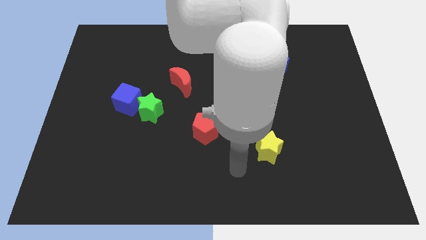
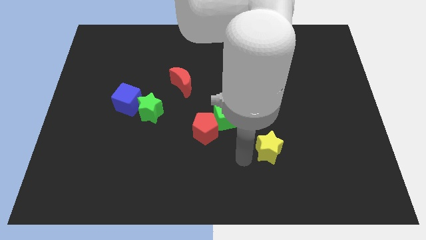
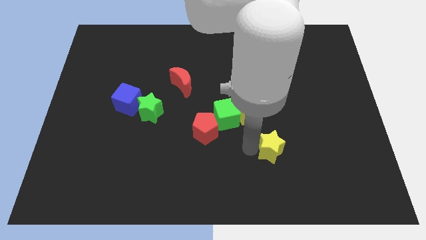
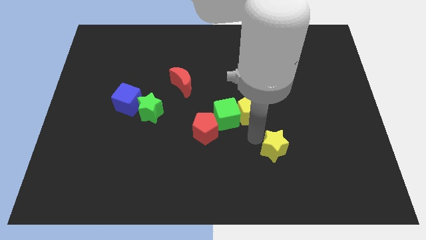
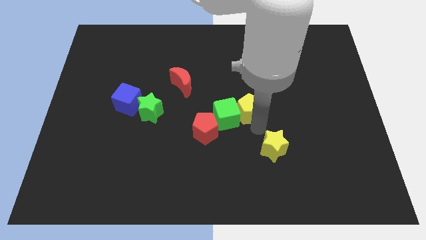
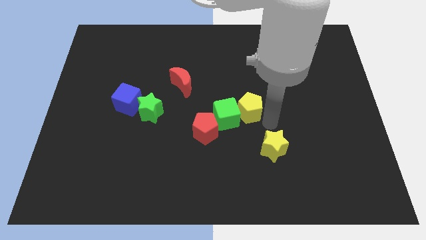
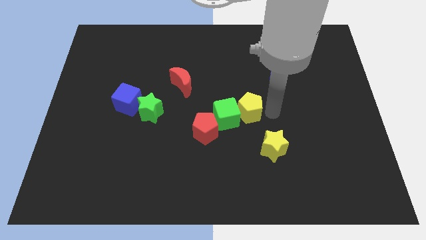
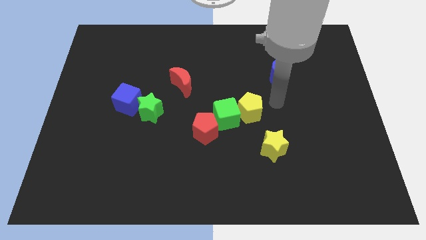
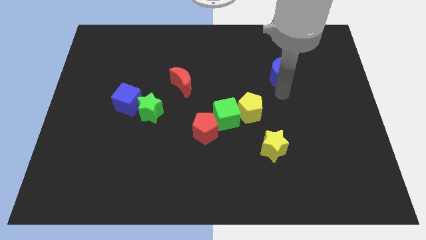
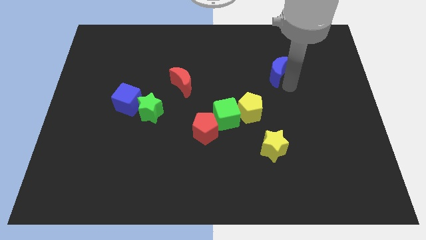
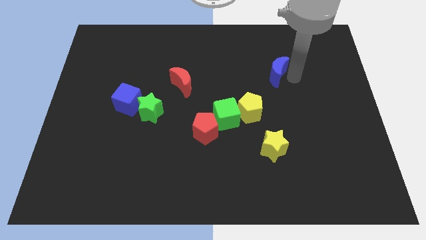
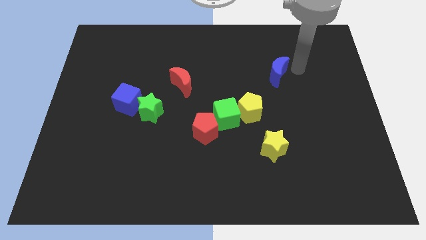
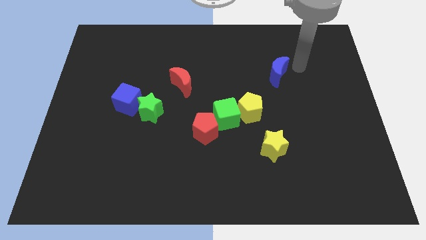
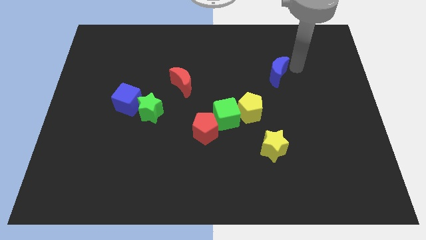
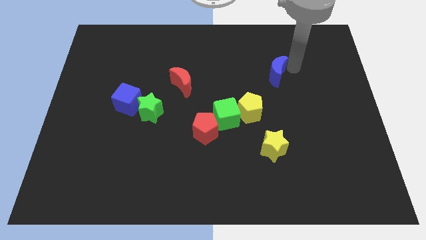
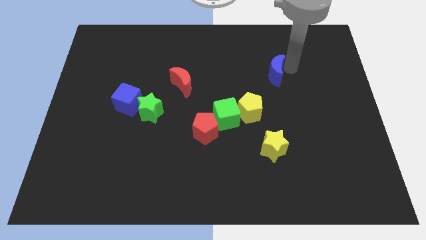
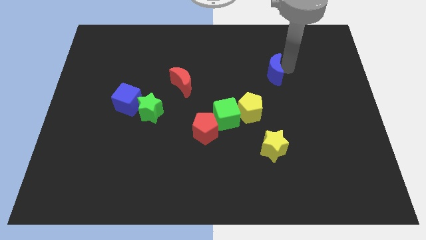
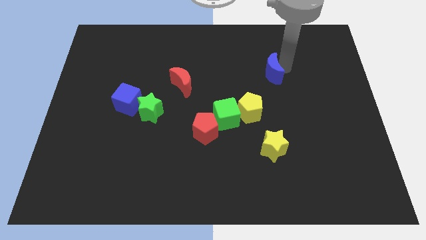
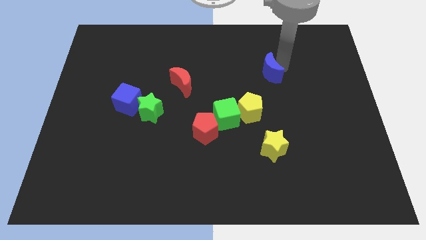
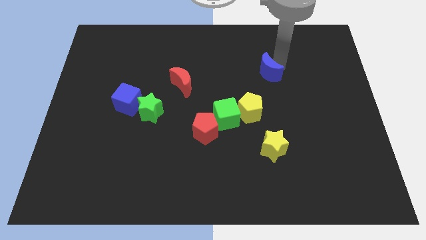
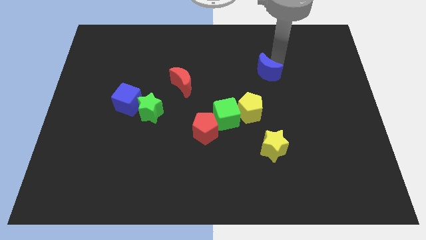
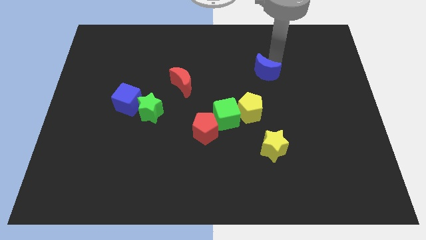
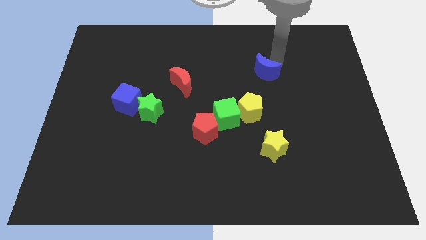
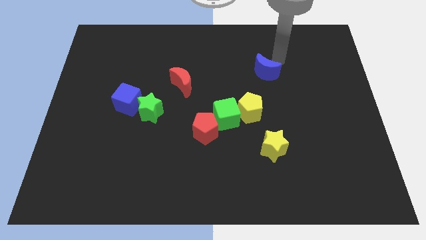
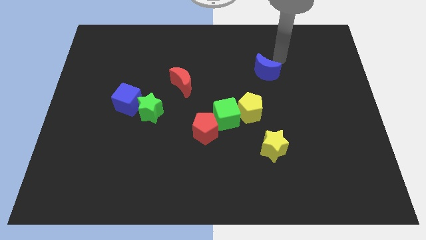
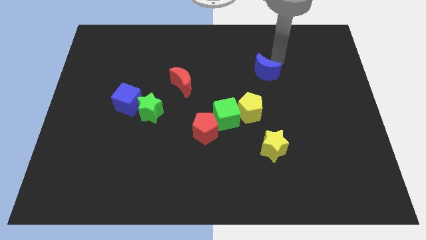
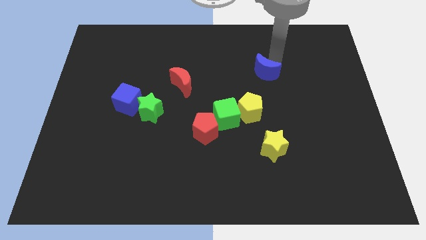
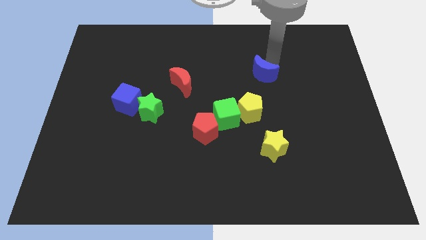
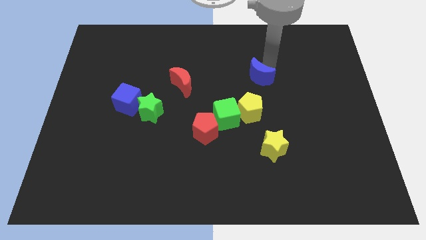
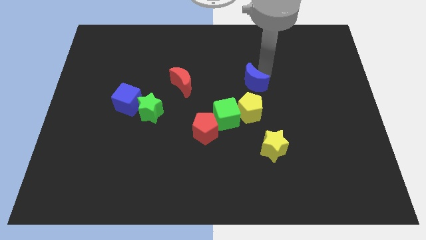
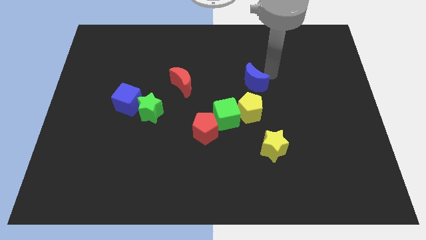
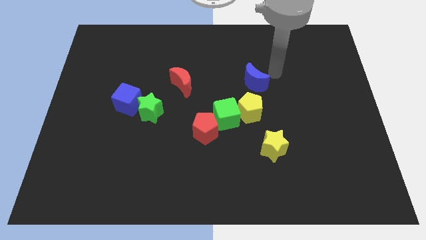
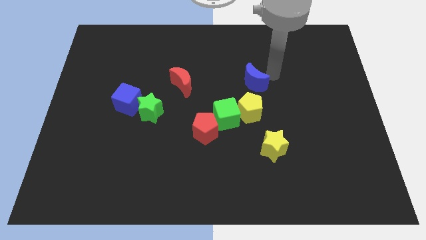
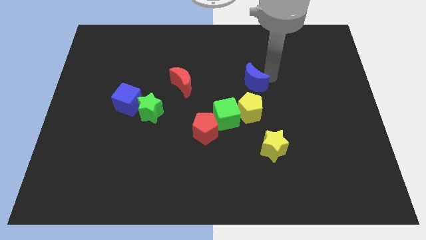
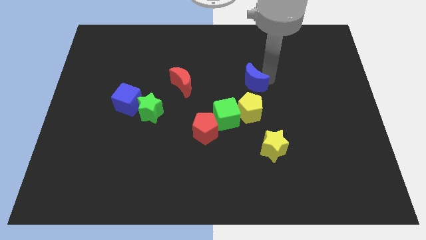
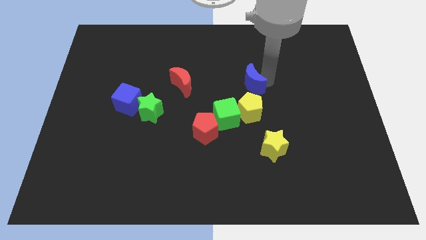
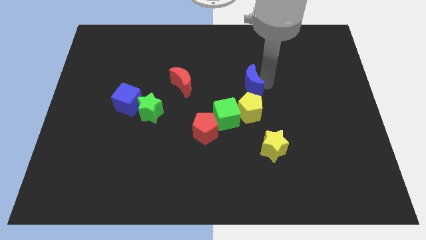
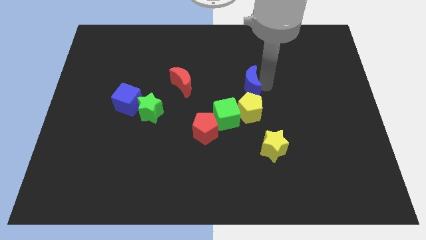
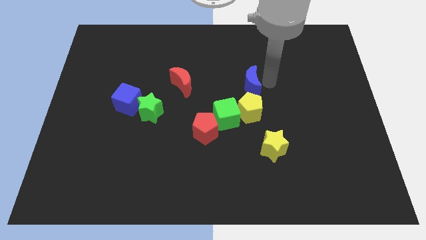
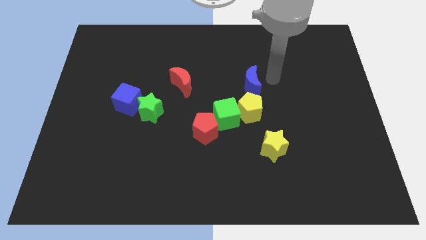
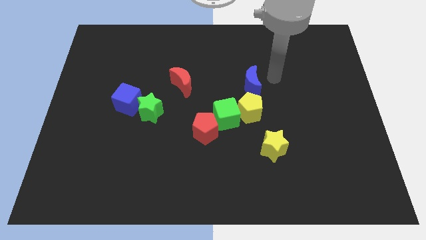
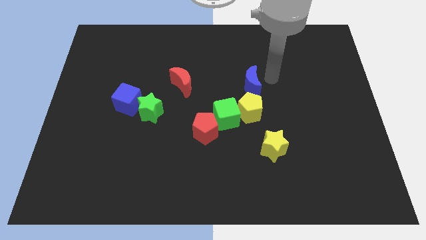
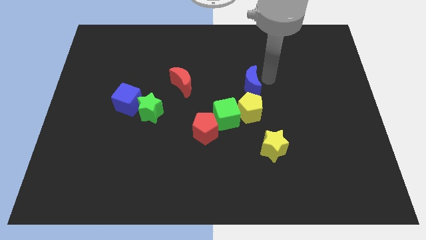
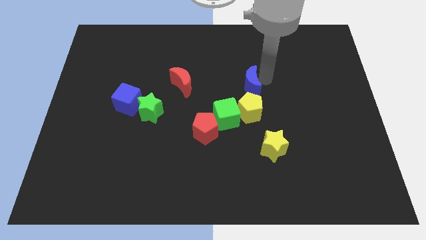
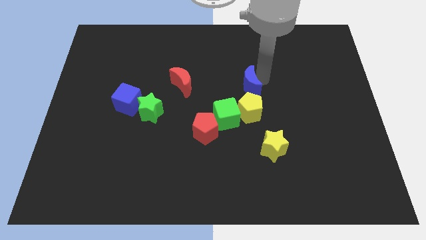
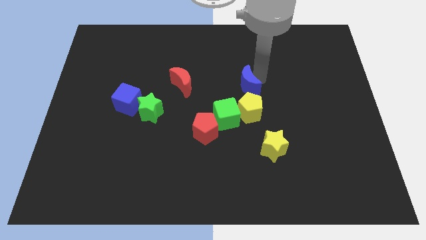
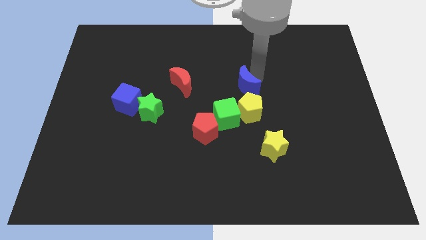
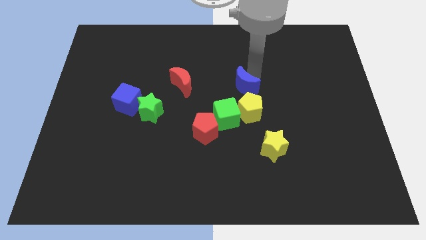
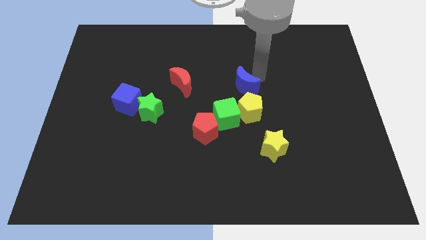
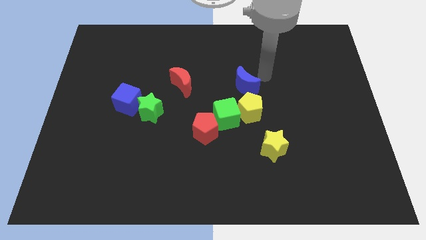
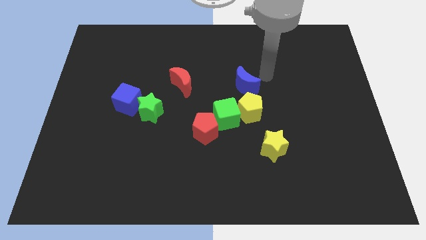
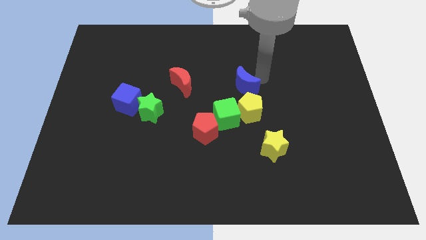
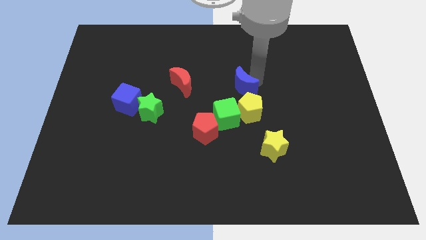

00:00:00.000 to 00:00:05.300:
move the blue moon to the top left of the yellow pentagon

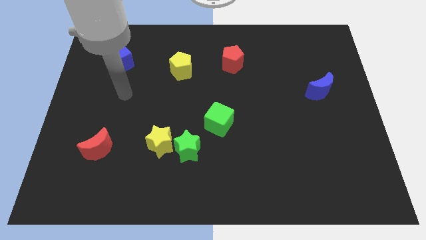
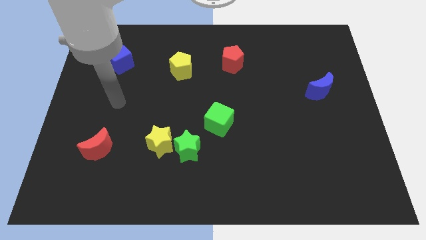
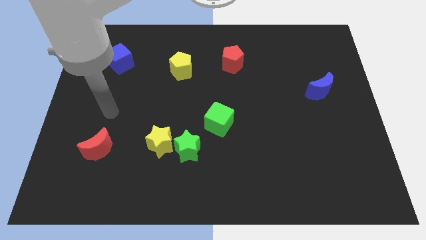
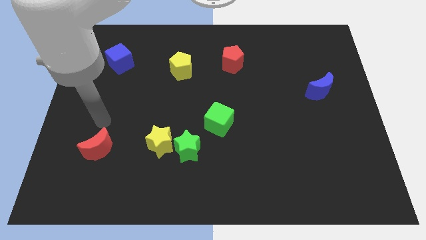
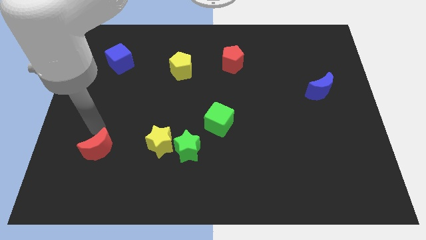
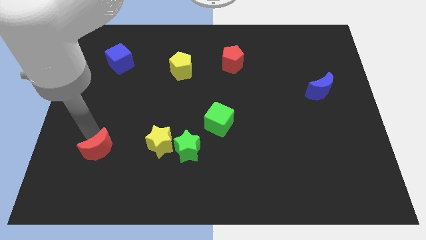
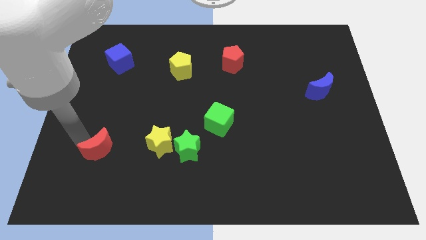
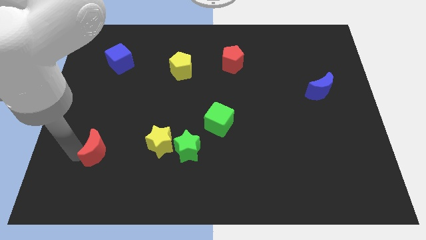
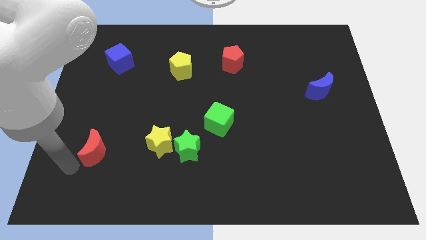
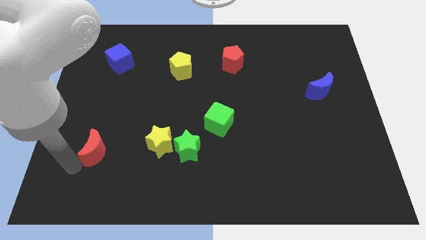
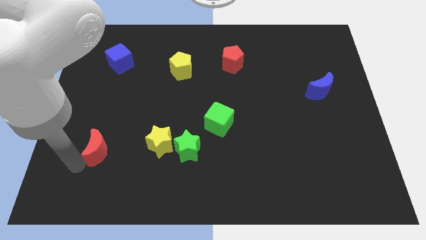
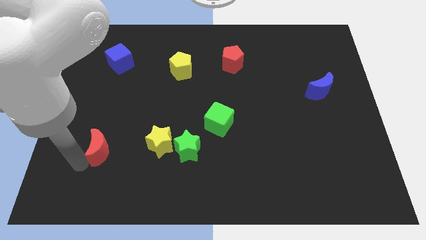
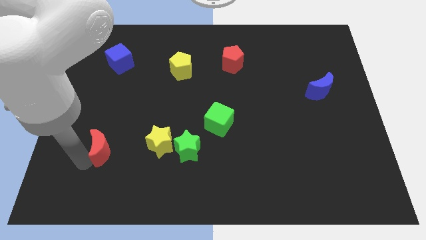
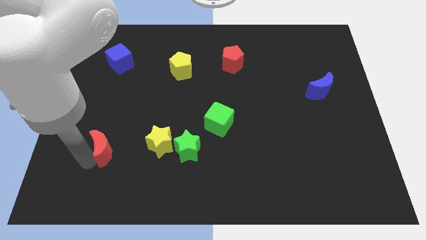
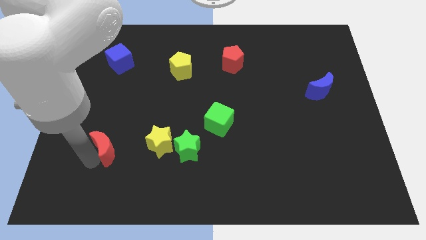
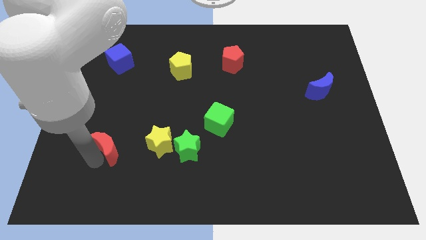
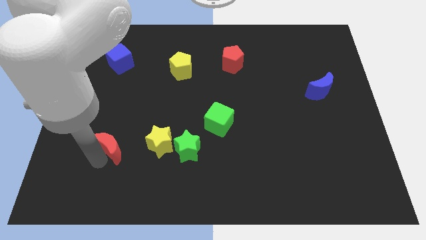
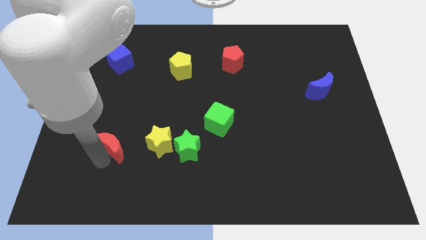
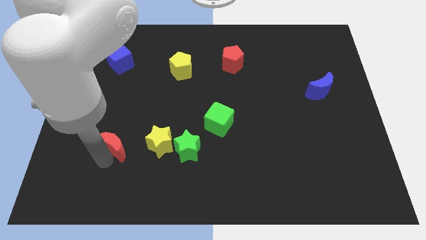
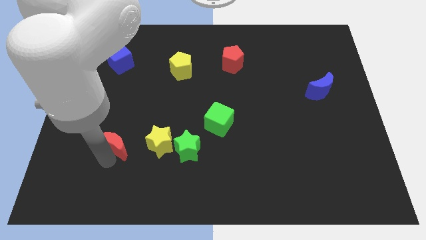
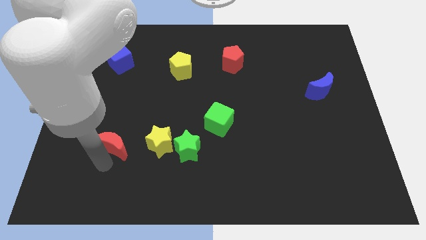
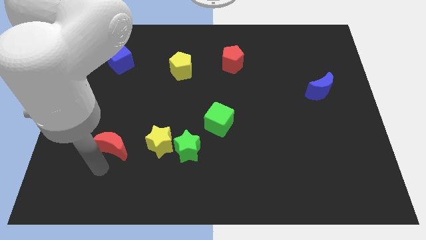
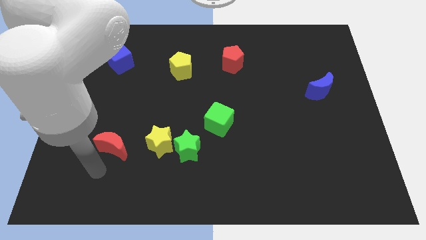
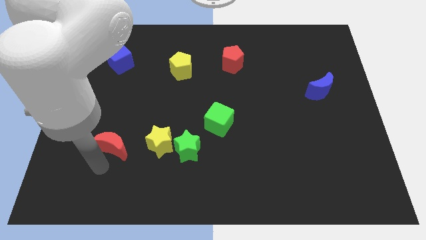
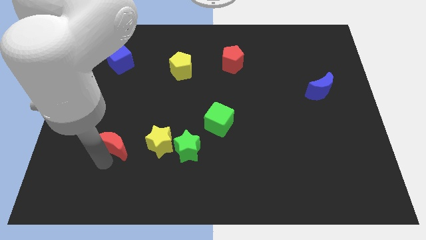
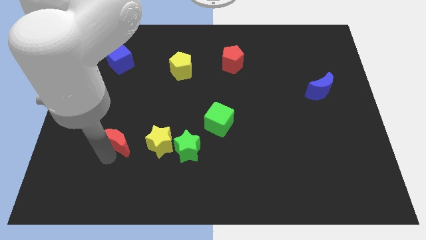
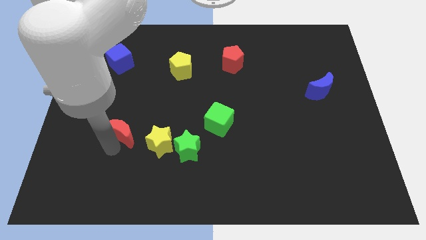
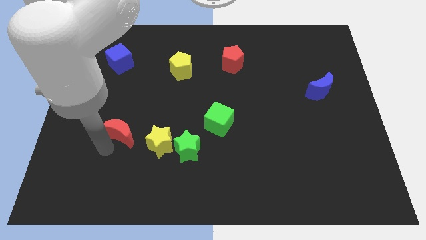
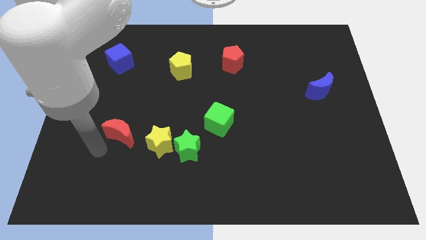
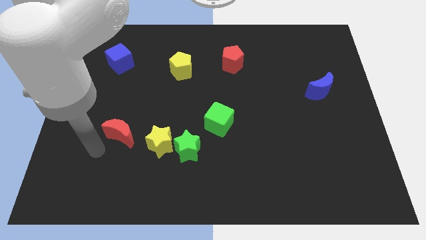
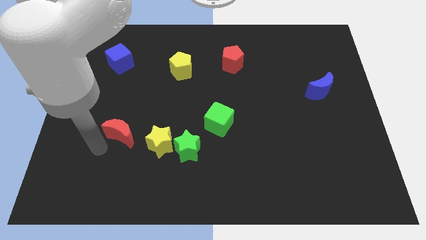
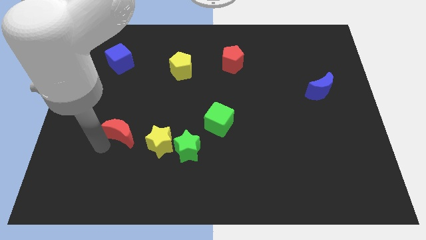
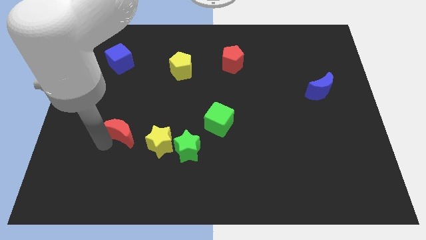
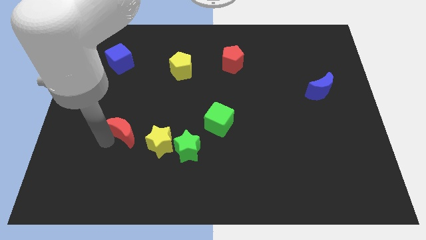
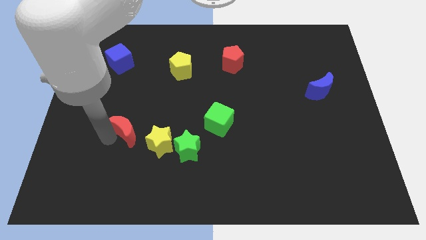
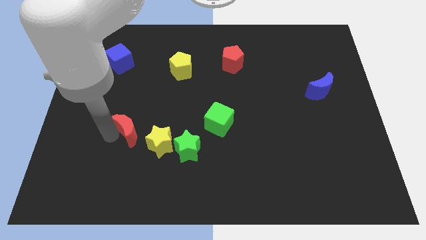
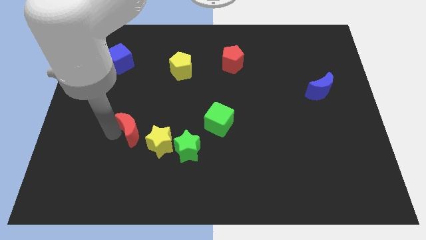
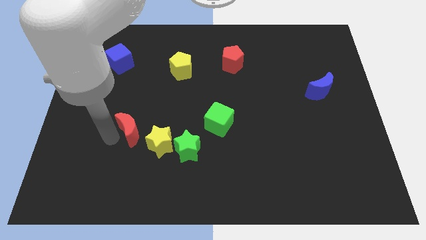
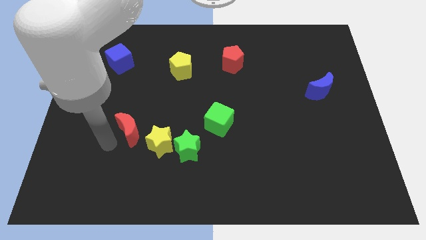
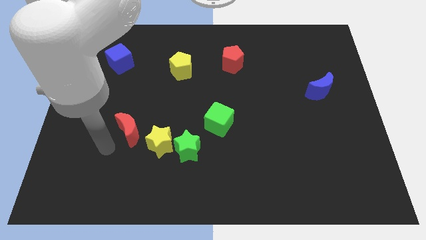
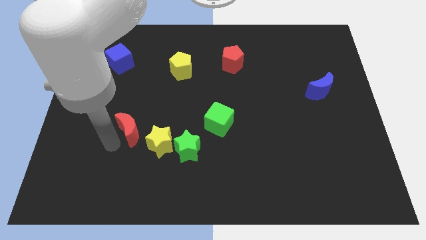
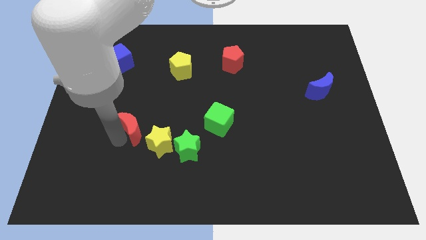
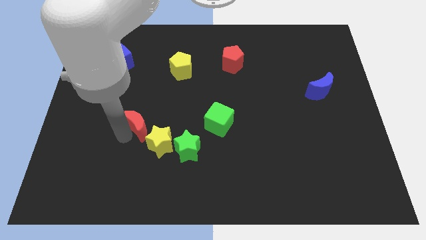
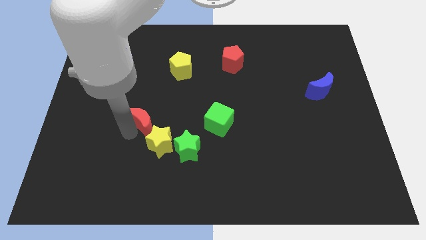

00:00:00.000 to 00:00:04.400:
put the red moon above the yellow star
